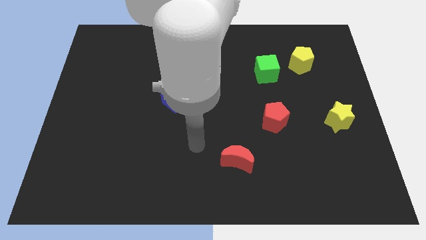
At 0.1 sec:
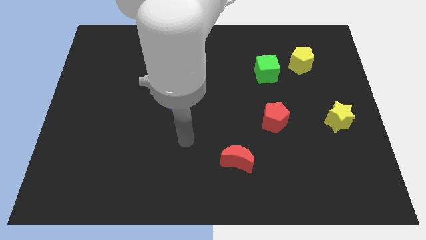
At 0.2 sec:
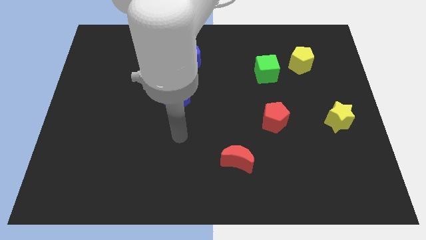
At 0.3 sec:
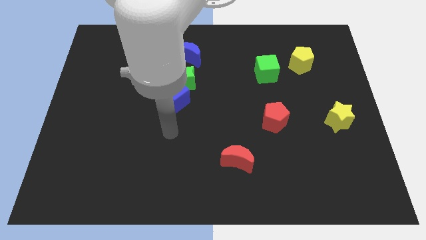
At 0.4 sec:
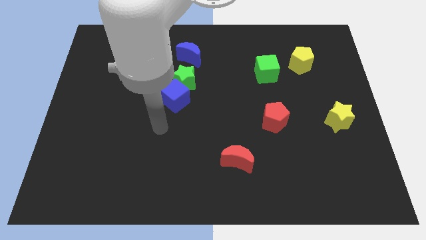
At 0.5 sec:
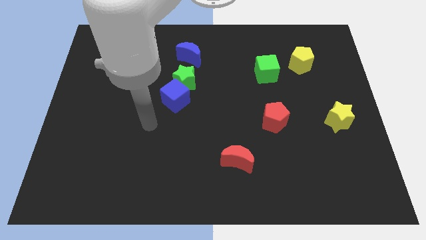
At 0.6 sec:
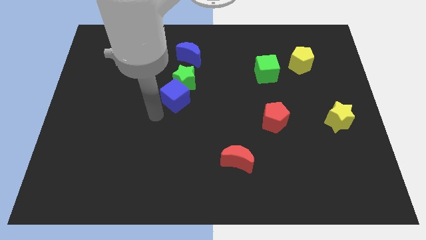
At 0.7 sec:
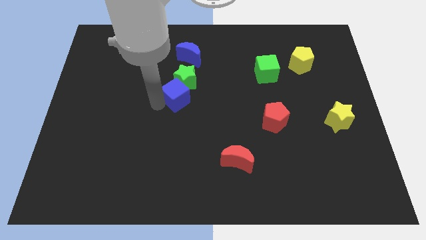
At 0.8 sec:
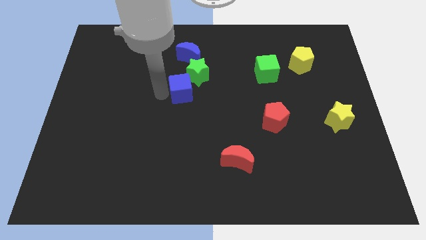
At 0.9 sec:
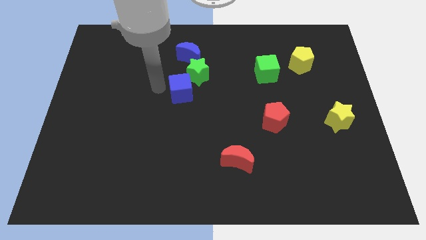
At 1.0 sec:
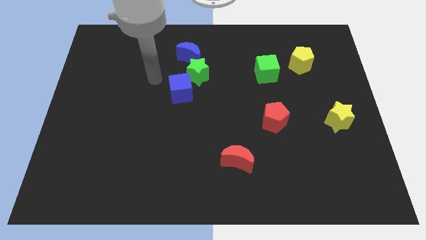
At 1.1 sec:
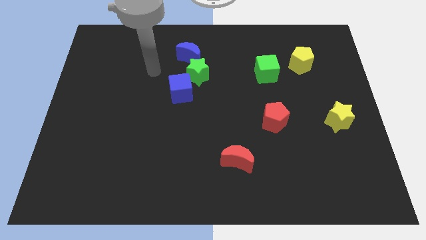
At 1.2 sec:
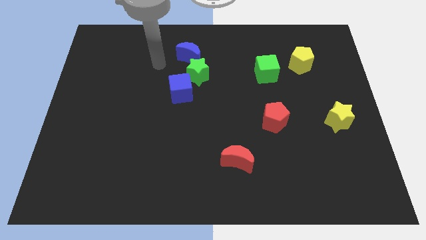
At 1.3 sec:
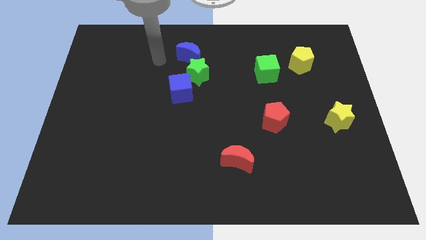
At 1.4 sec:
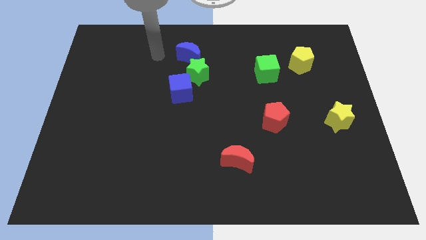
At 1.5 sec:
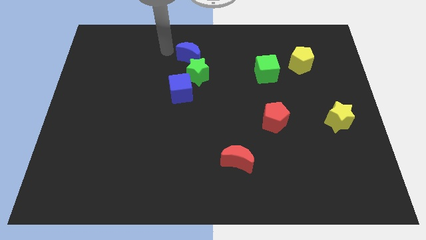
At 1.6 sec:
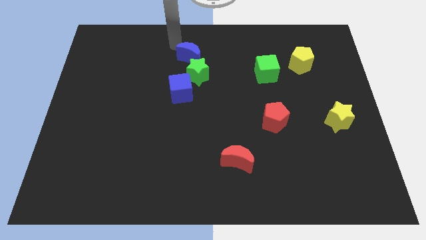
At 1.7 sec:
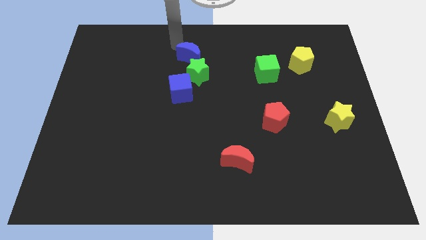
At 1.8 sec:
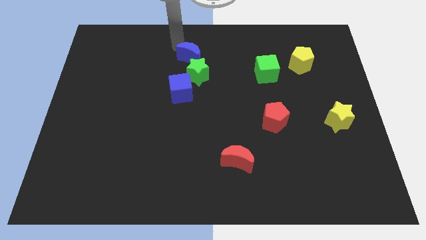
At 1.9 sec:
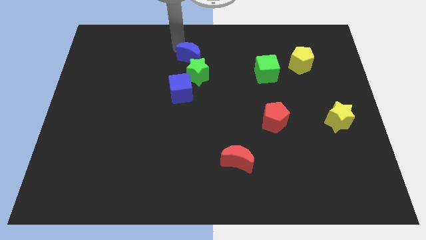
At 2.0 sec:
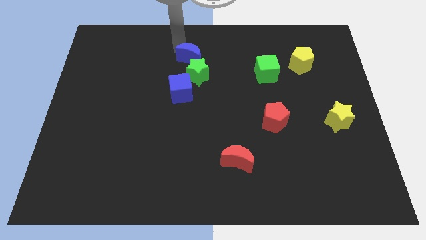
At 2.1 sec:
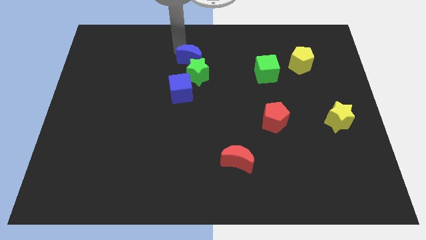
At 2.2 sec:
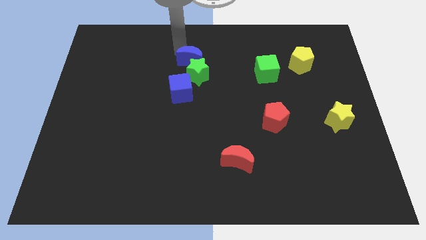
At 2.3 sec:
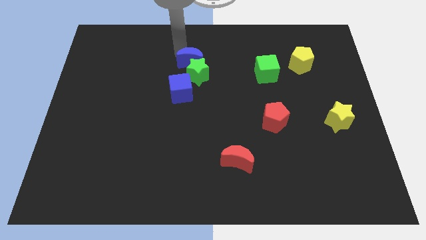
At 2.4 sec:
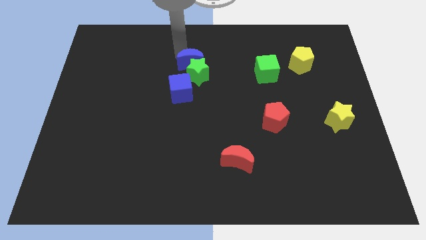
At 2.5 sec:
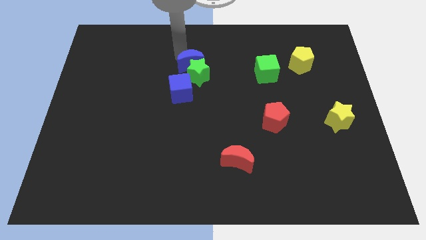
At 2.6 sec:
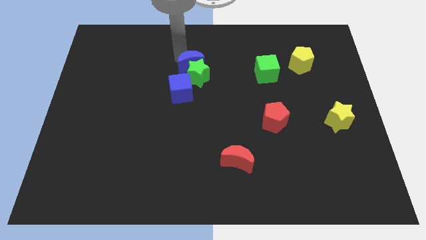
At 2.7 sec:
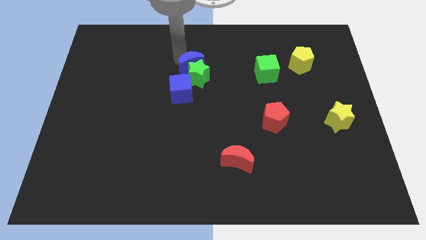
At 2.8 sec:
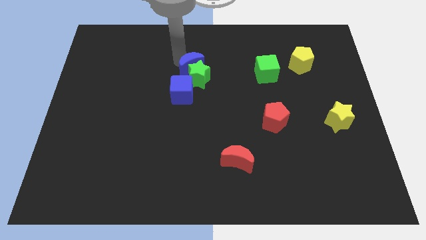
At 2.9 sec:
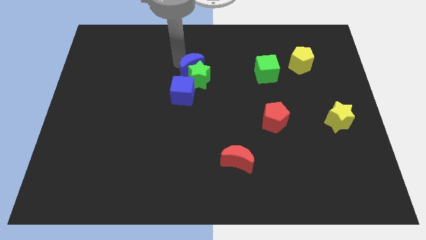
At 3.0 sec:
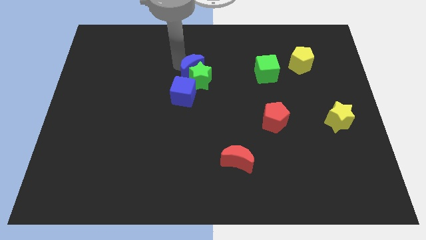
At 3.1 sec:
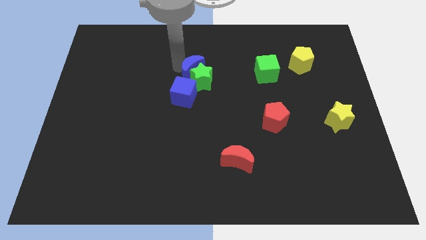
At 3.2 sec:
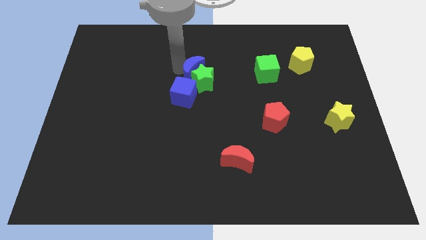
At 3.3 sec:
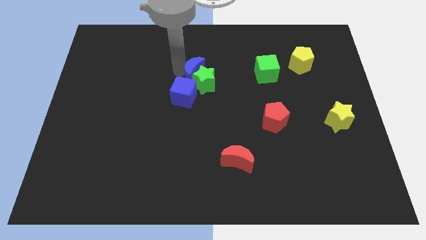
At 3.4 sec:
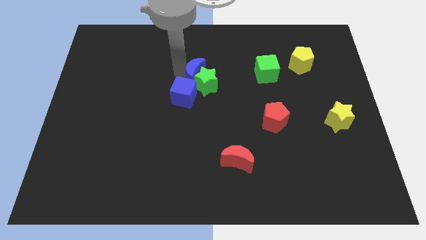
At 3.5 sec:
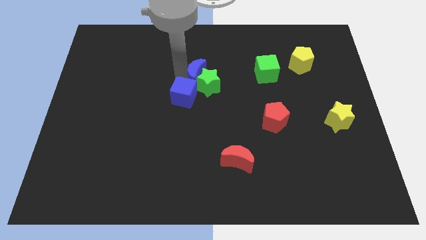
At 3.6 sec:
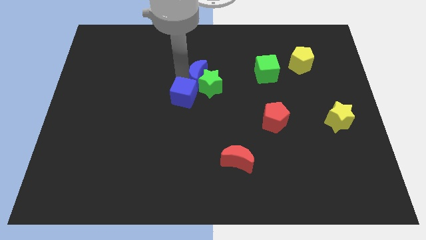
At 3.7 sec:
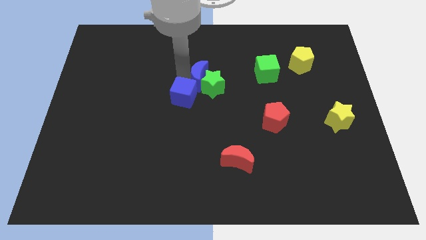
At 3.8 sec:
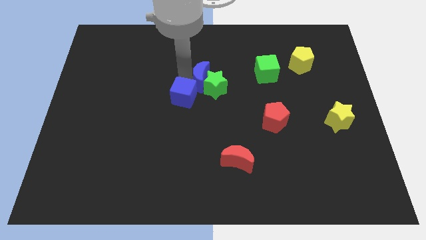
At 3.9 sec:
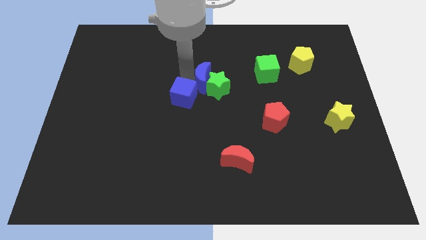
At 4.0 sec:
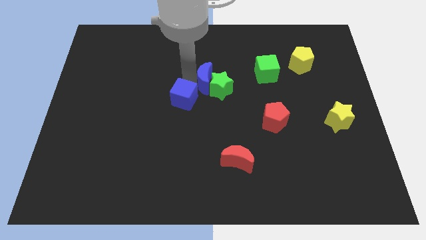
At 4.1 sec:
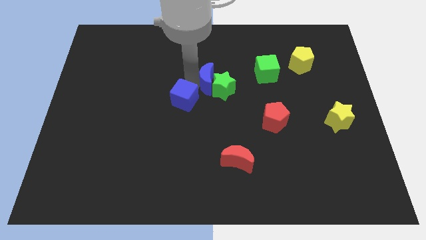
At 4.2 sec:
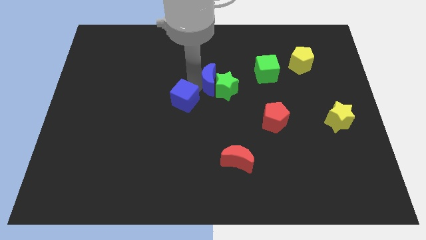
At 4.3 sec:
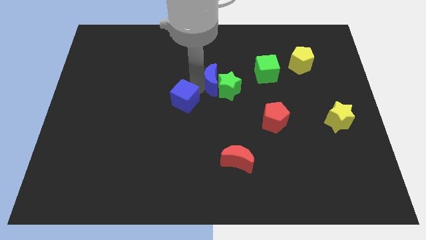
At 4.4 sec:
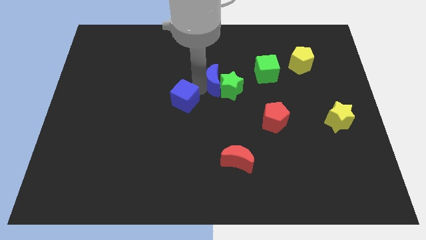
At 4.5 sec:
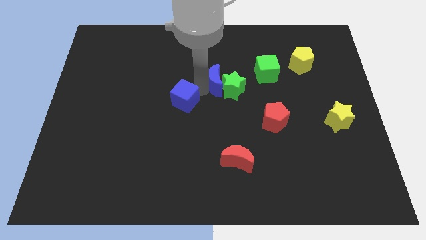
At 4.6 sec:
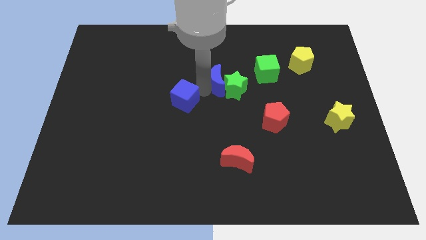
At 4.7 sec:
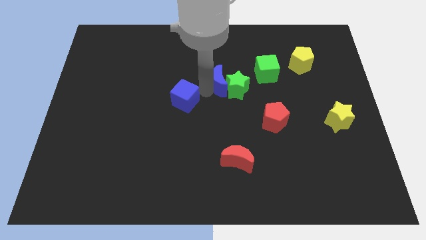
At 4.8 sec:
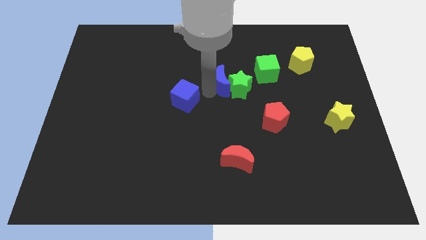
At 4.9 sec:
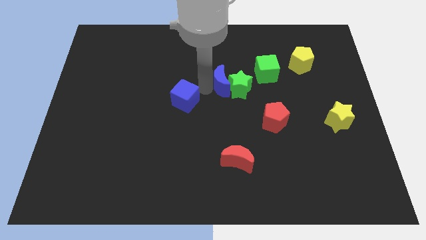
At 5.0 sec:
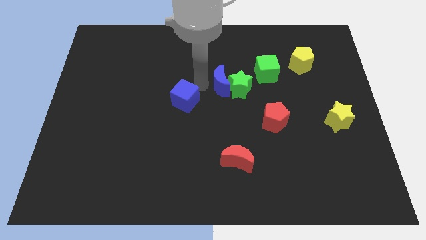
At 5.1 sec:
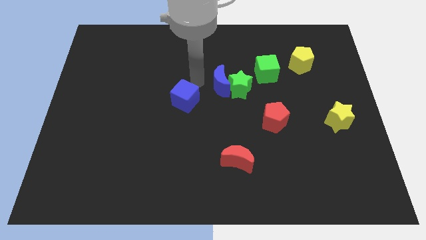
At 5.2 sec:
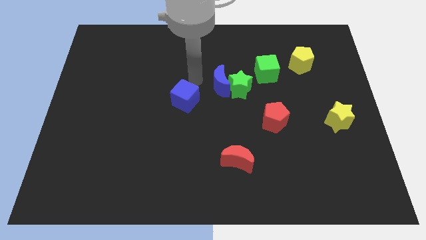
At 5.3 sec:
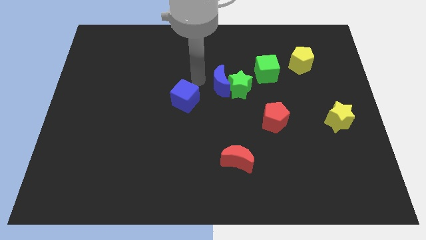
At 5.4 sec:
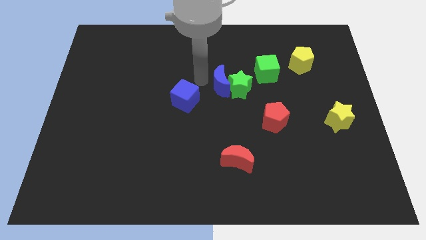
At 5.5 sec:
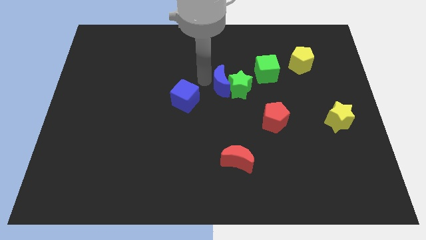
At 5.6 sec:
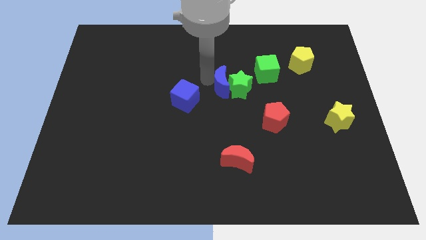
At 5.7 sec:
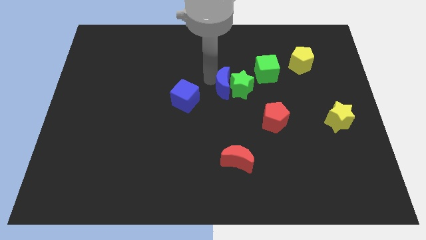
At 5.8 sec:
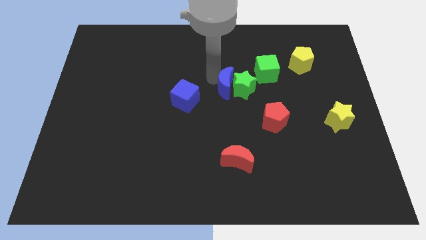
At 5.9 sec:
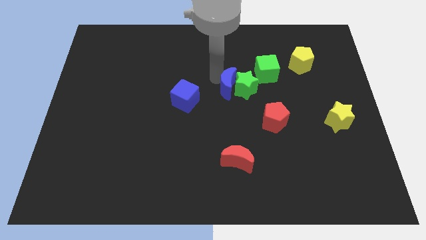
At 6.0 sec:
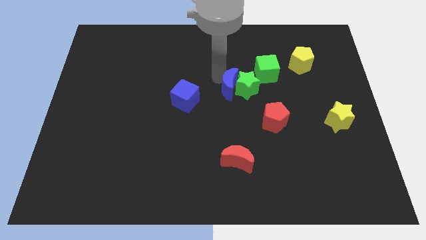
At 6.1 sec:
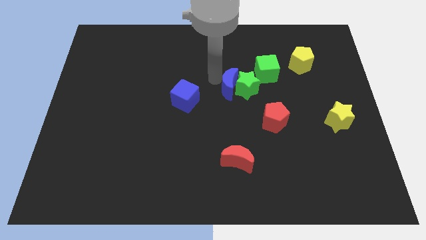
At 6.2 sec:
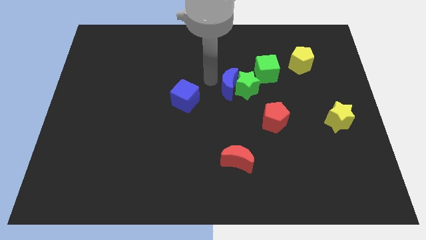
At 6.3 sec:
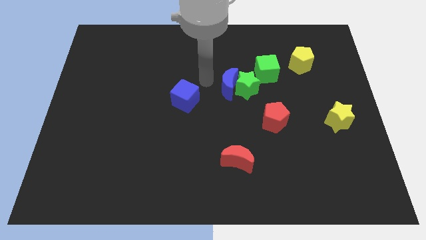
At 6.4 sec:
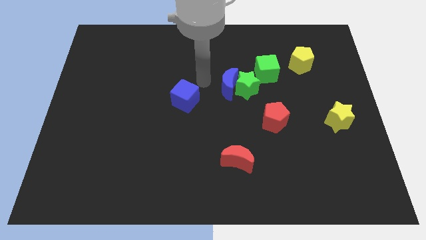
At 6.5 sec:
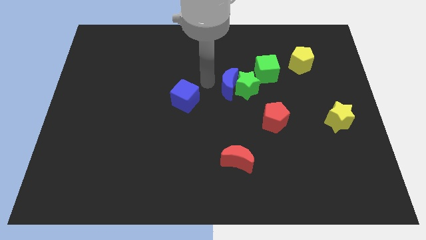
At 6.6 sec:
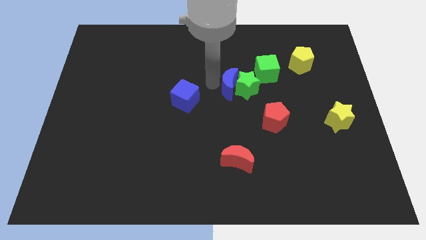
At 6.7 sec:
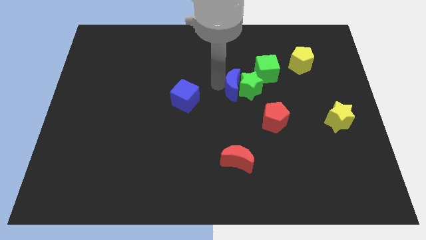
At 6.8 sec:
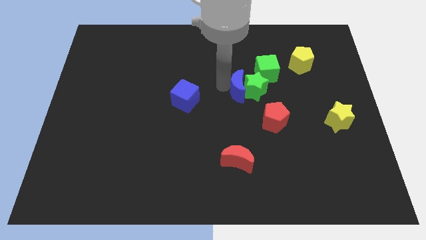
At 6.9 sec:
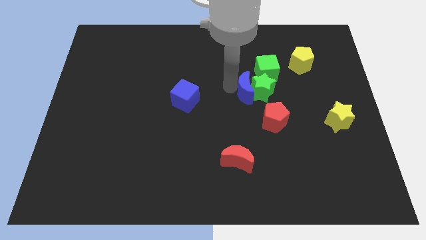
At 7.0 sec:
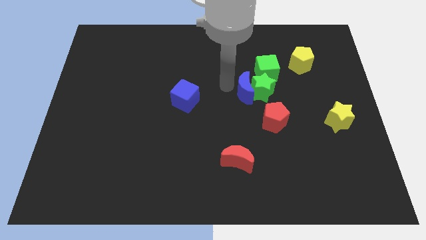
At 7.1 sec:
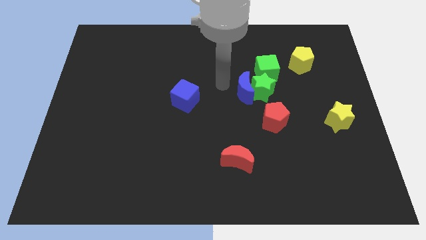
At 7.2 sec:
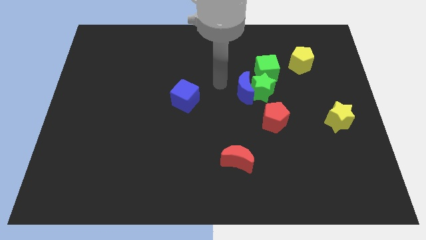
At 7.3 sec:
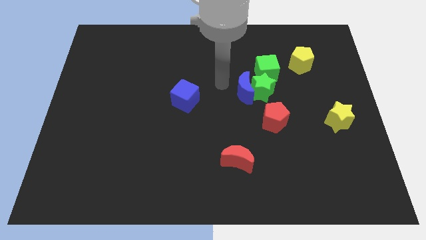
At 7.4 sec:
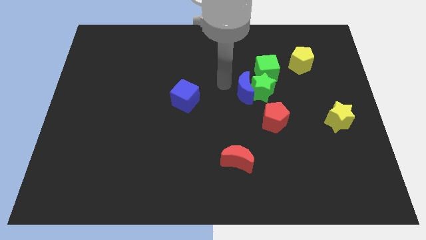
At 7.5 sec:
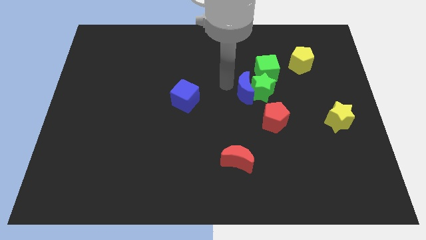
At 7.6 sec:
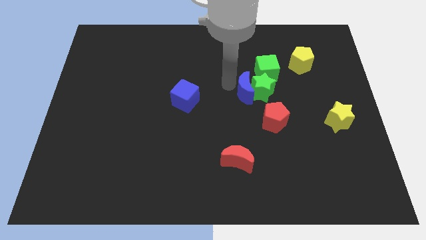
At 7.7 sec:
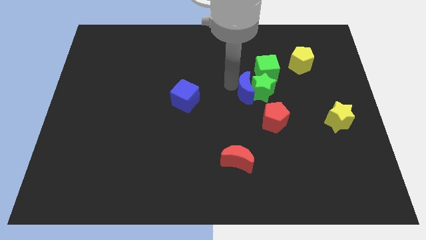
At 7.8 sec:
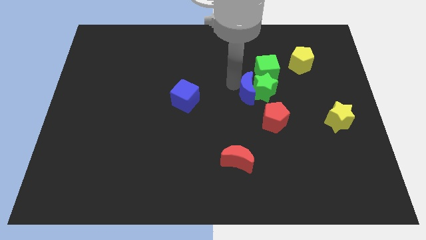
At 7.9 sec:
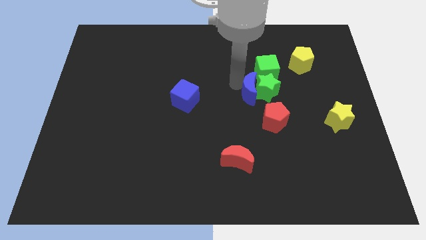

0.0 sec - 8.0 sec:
slide the blue moon below the green cube
